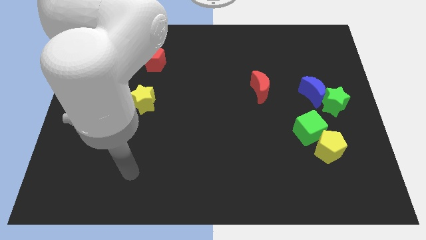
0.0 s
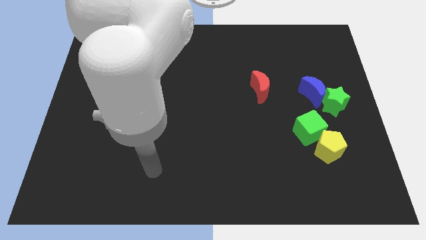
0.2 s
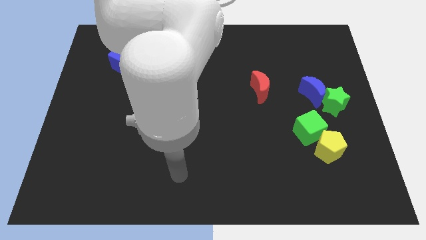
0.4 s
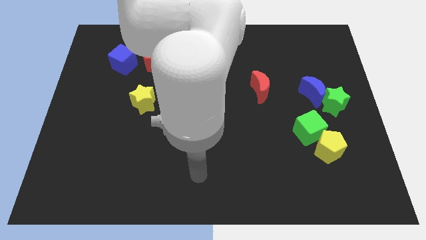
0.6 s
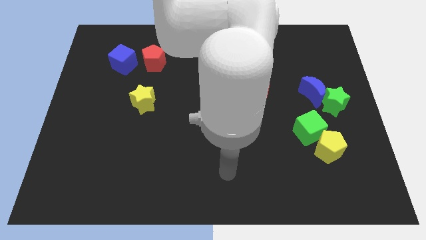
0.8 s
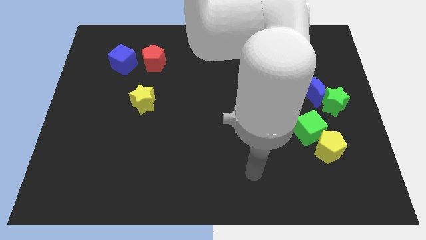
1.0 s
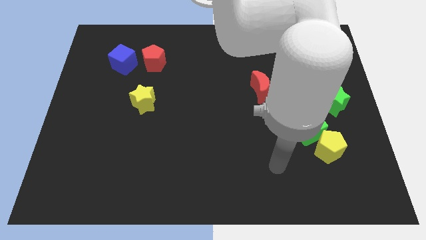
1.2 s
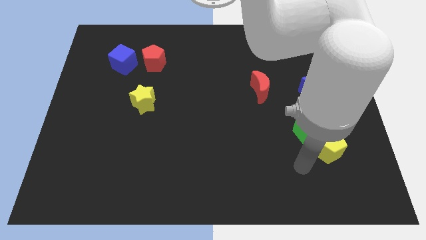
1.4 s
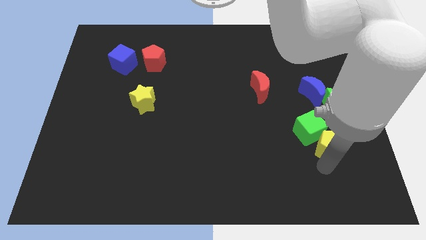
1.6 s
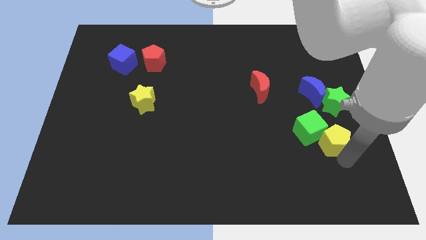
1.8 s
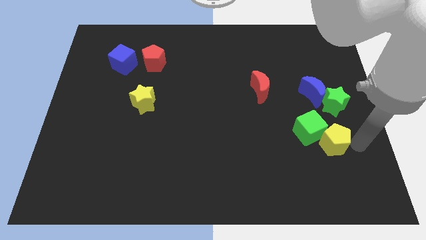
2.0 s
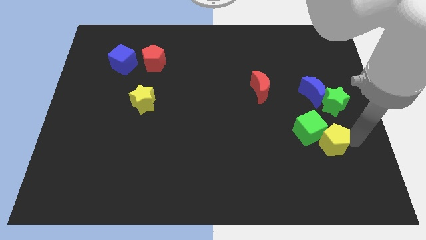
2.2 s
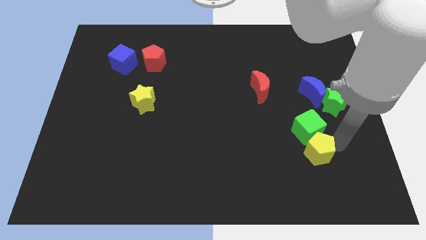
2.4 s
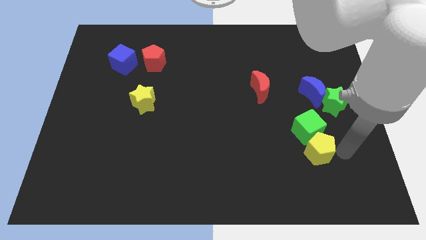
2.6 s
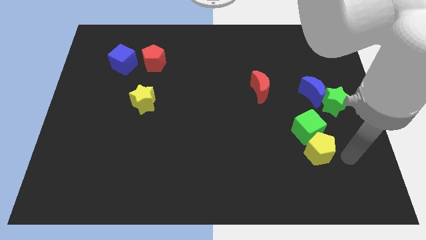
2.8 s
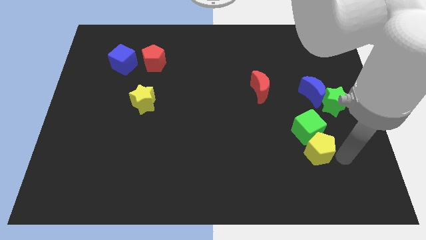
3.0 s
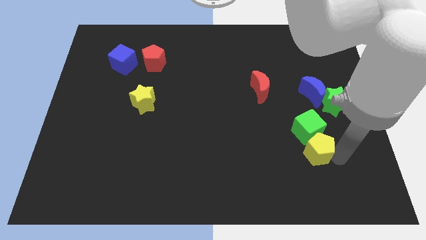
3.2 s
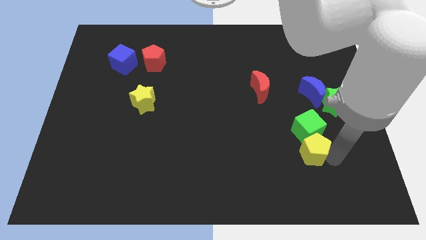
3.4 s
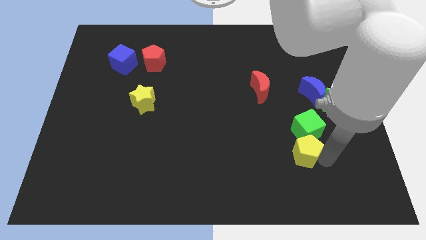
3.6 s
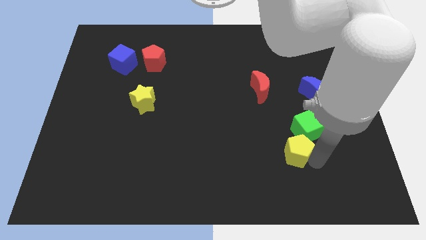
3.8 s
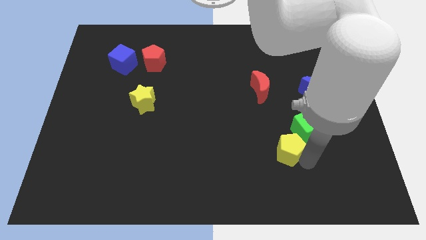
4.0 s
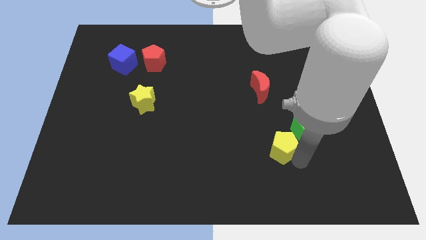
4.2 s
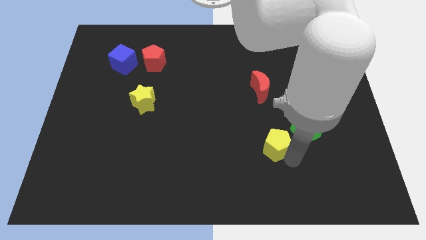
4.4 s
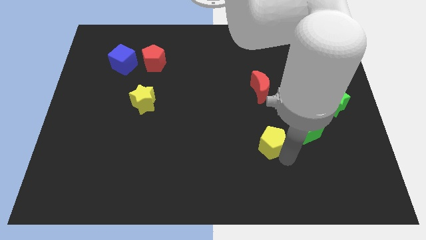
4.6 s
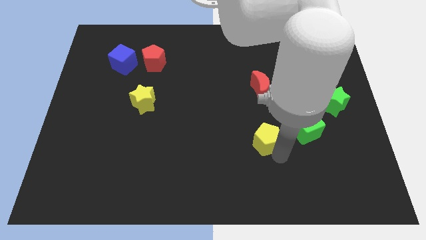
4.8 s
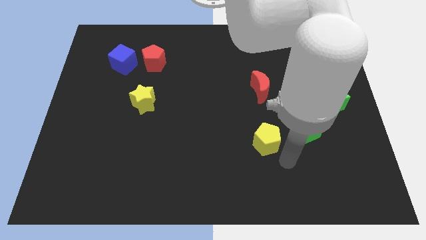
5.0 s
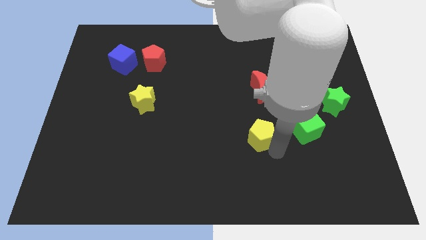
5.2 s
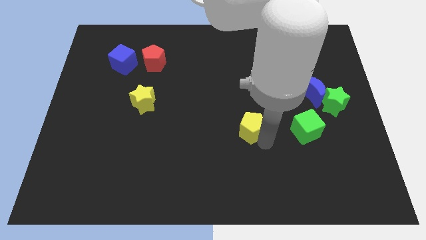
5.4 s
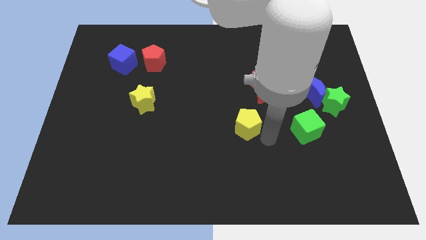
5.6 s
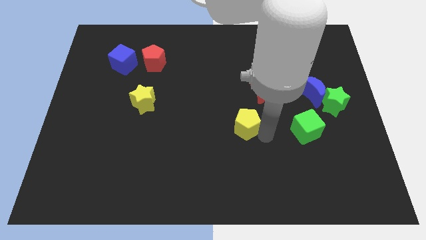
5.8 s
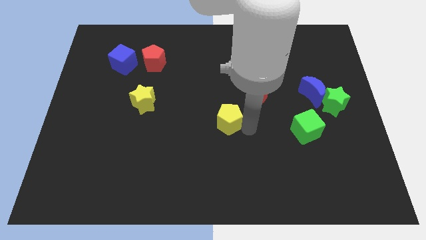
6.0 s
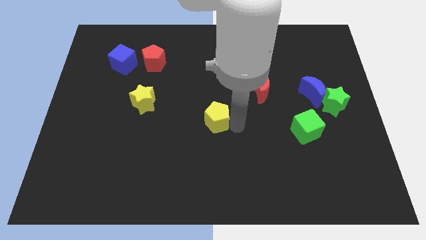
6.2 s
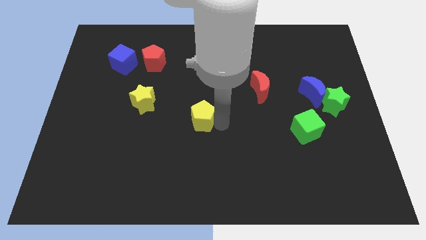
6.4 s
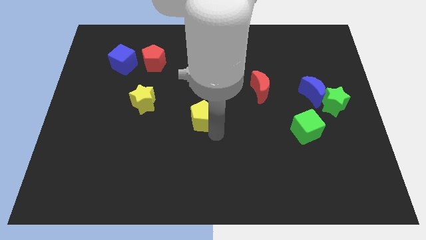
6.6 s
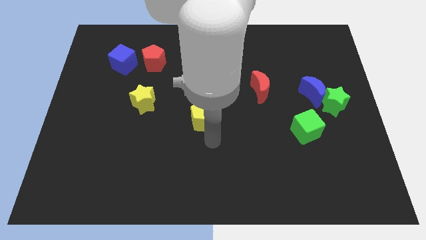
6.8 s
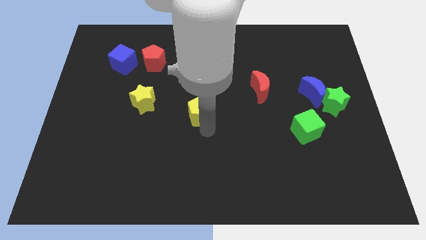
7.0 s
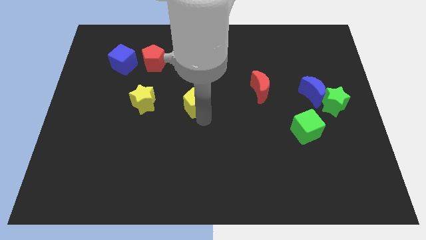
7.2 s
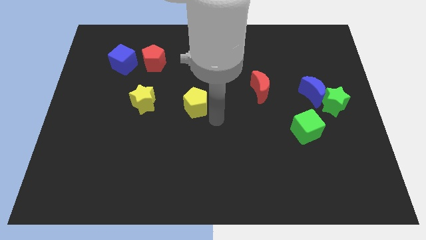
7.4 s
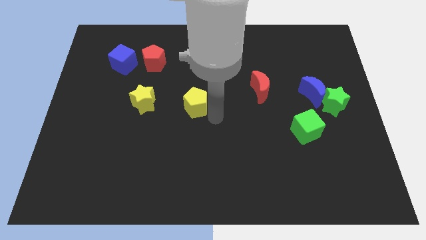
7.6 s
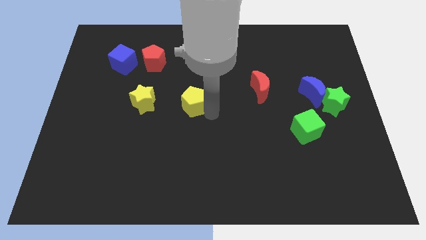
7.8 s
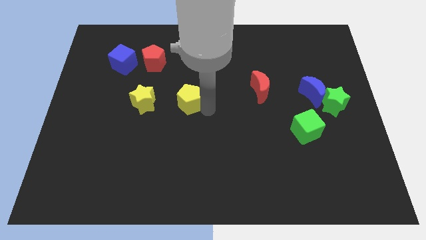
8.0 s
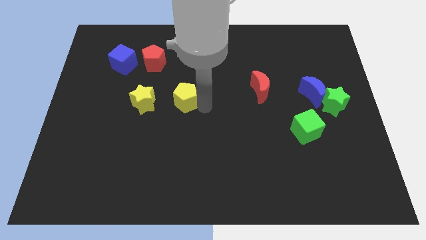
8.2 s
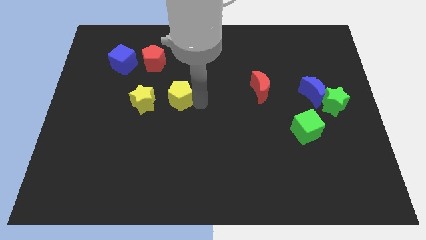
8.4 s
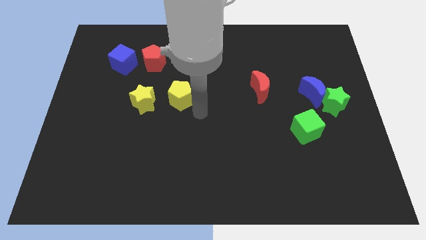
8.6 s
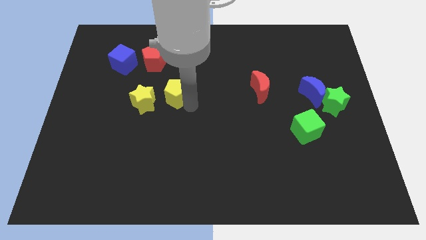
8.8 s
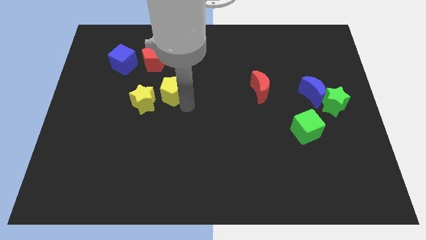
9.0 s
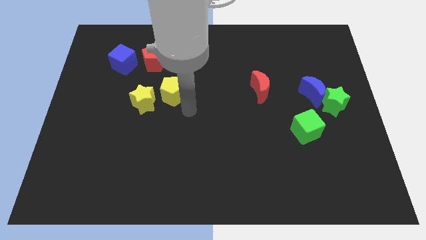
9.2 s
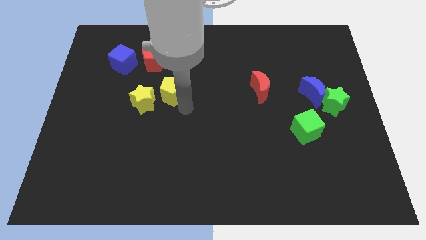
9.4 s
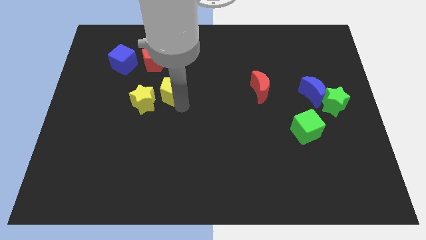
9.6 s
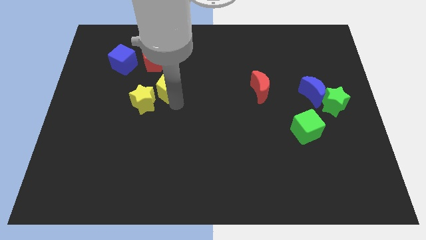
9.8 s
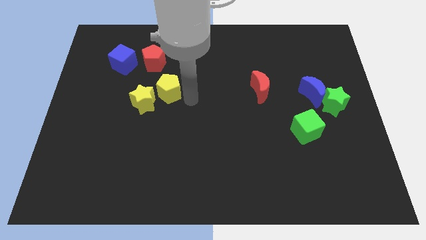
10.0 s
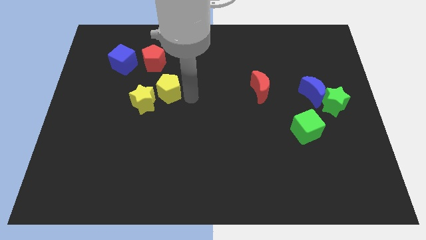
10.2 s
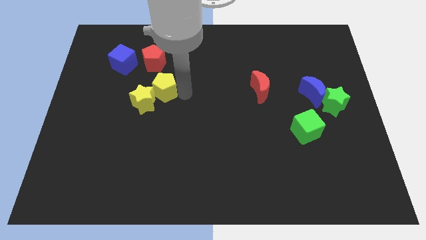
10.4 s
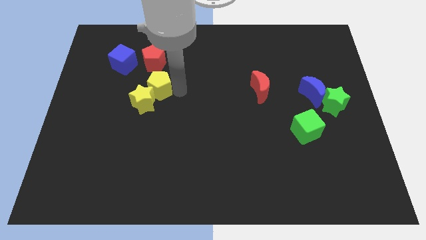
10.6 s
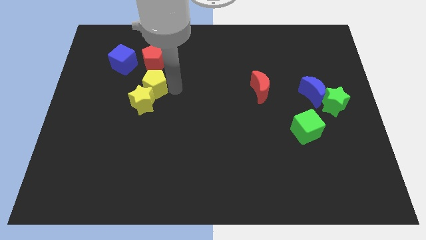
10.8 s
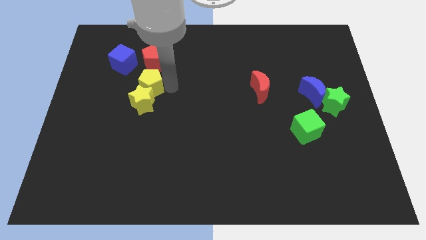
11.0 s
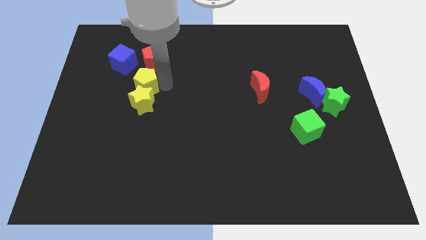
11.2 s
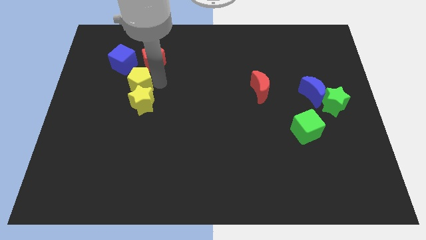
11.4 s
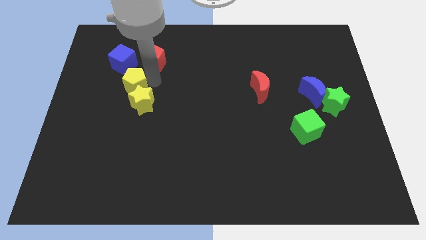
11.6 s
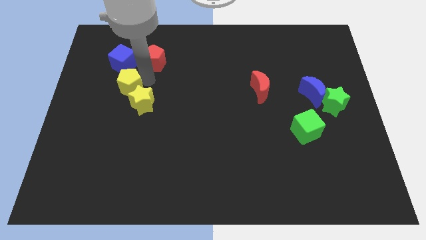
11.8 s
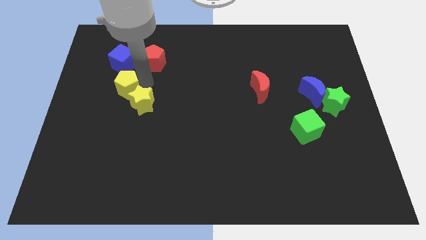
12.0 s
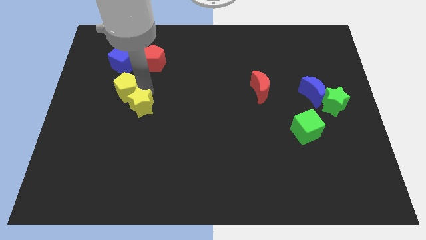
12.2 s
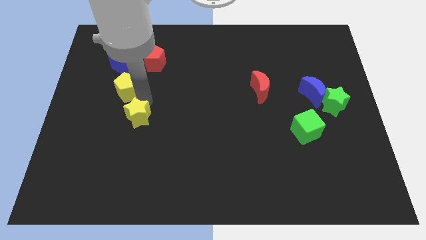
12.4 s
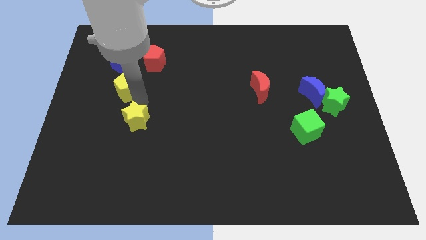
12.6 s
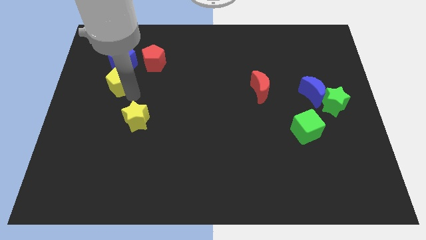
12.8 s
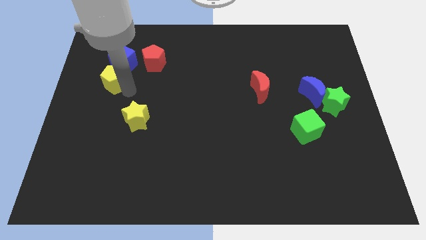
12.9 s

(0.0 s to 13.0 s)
push the yellow pentagon to the bottom left side of the blue cube

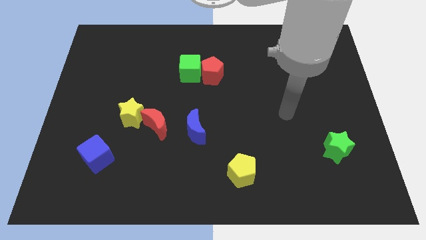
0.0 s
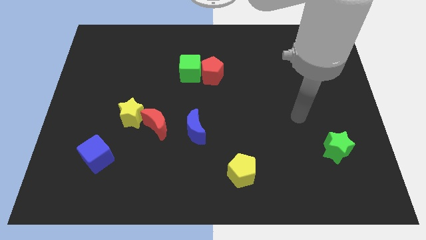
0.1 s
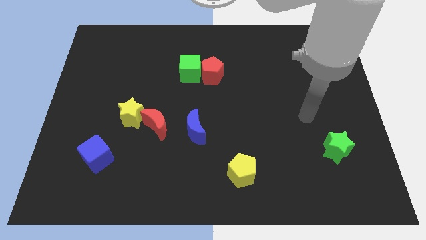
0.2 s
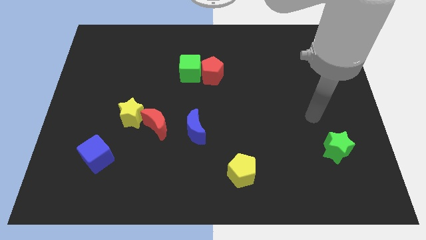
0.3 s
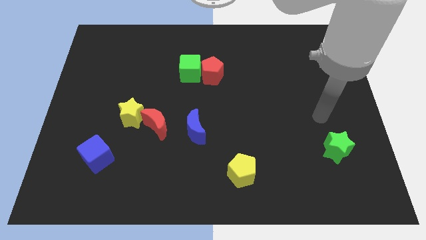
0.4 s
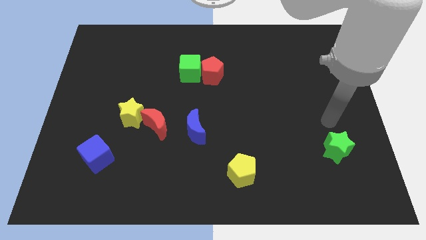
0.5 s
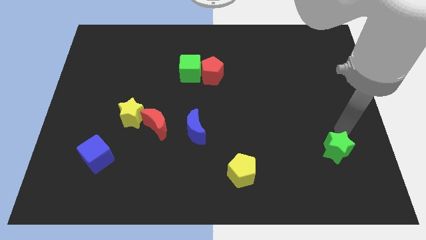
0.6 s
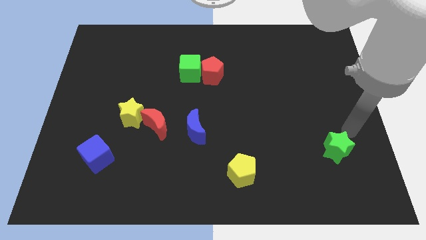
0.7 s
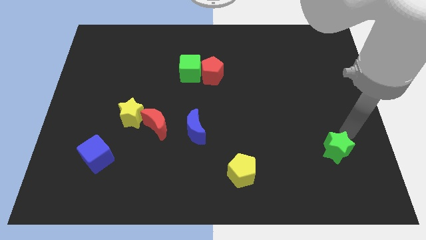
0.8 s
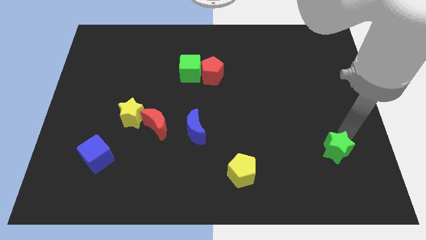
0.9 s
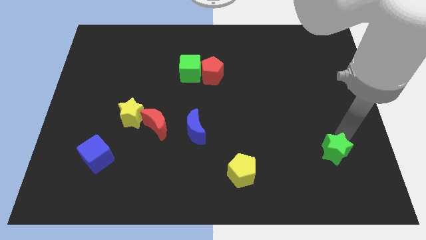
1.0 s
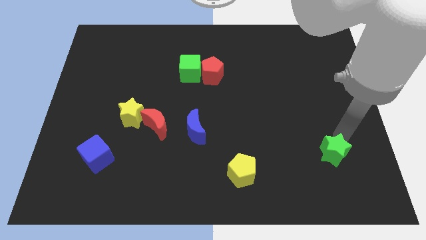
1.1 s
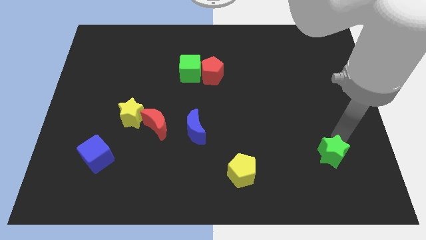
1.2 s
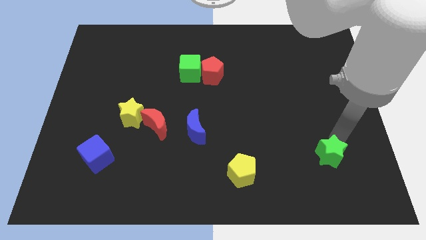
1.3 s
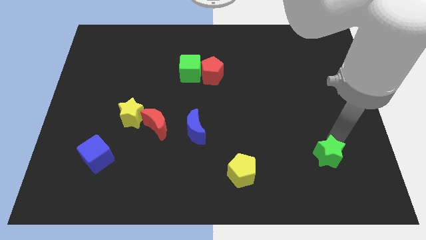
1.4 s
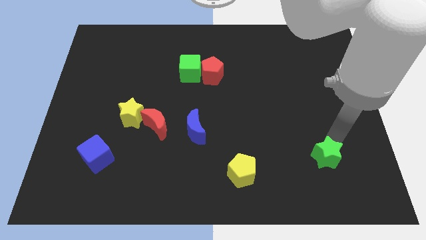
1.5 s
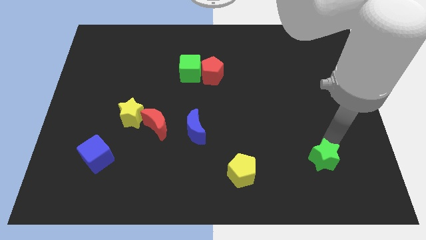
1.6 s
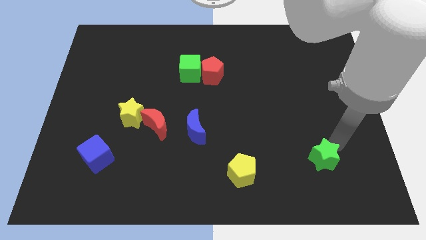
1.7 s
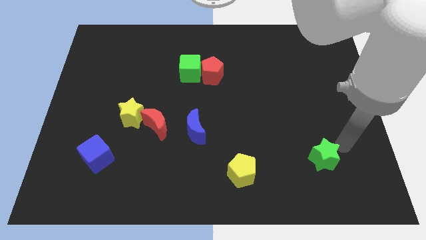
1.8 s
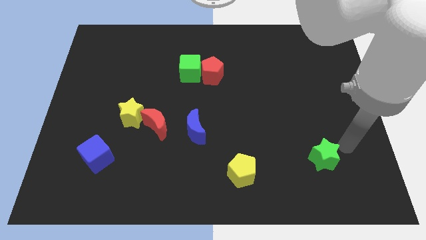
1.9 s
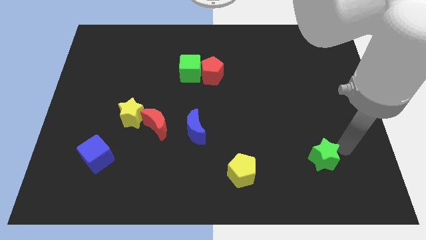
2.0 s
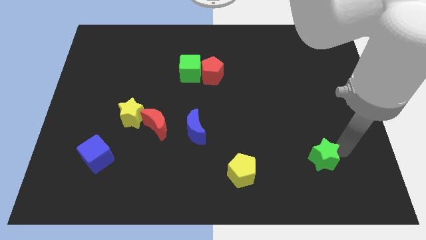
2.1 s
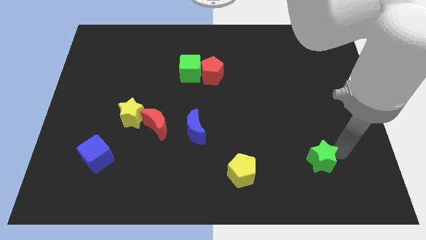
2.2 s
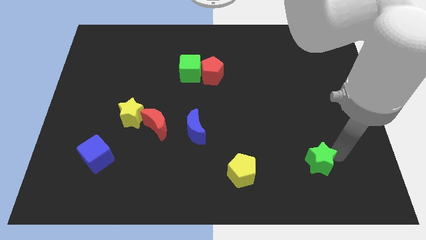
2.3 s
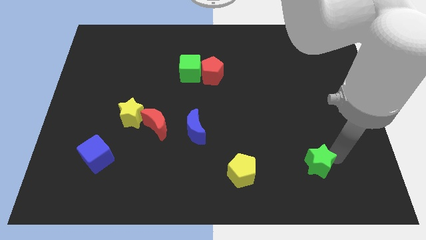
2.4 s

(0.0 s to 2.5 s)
slide the green star just right of the yellow pentagon
